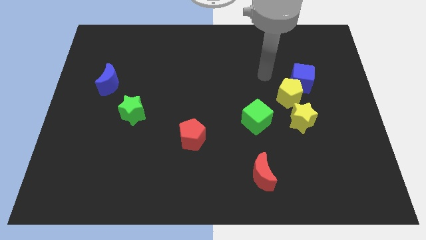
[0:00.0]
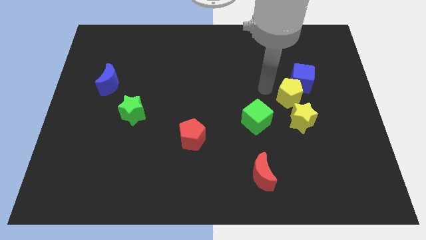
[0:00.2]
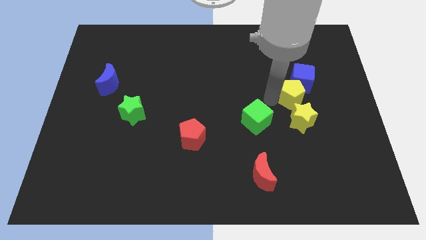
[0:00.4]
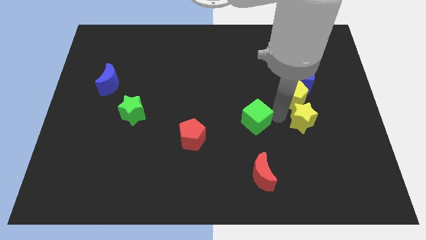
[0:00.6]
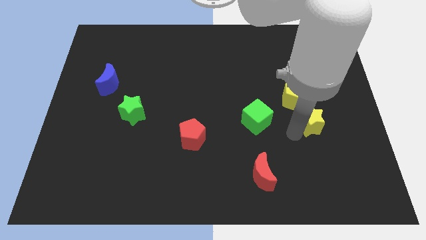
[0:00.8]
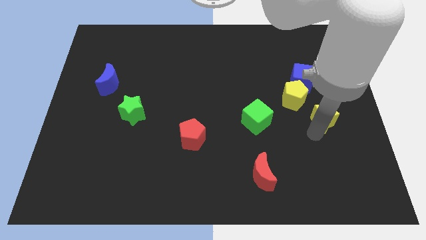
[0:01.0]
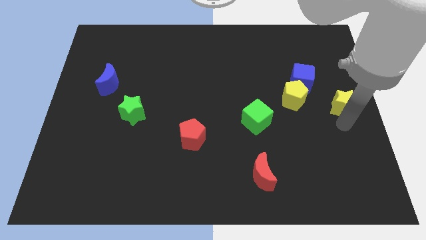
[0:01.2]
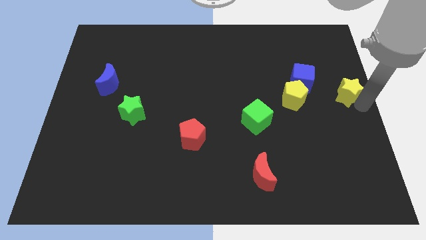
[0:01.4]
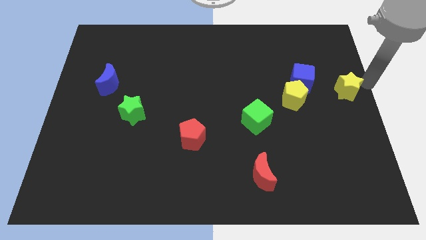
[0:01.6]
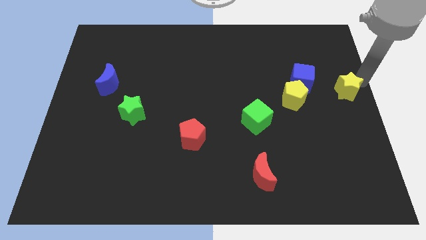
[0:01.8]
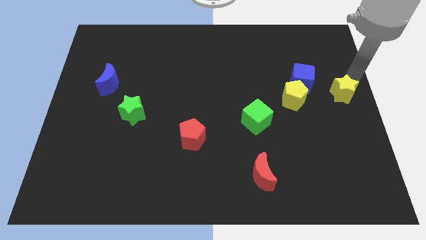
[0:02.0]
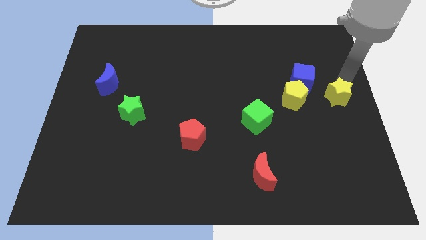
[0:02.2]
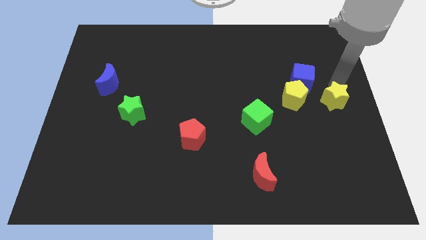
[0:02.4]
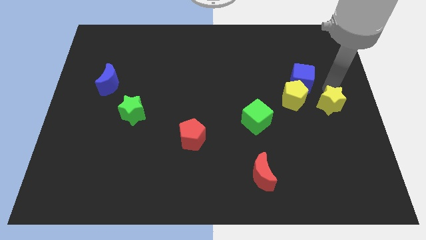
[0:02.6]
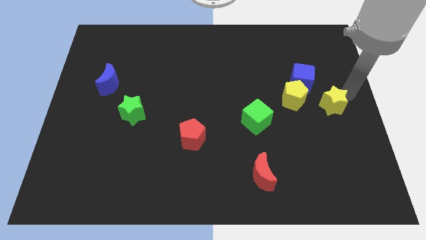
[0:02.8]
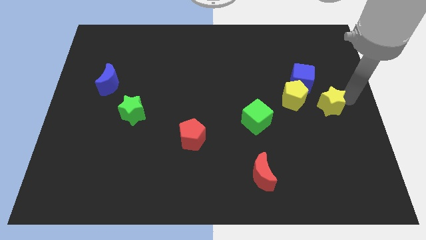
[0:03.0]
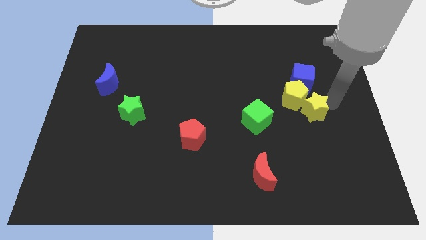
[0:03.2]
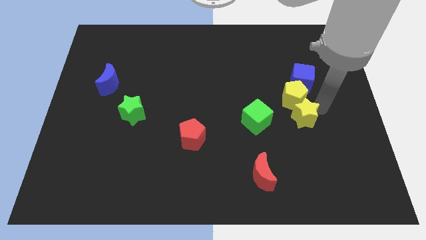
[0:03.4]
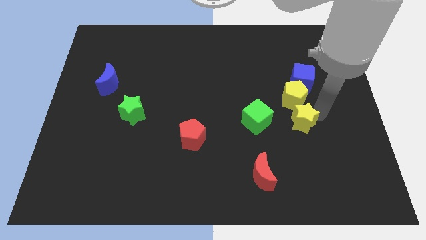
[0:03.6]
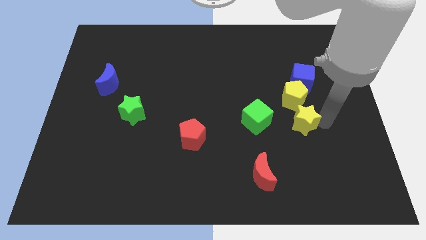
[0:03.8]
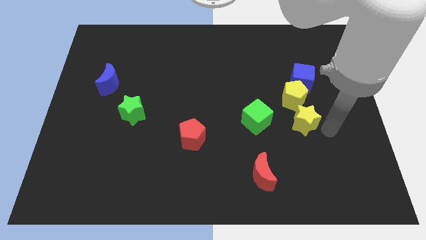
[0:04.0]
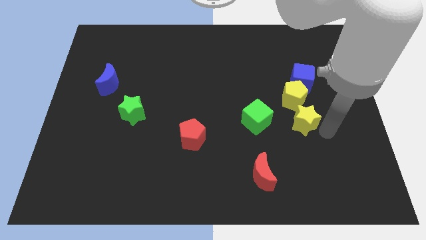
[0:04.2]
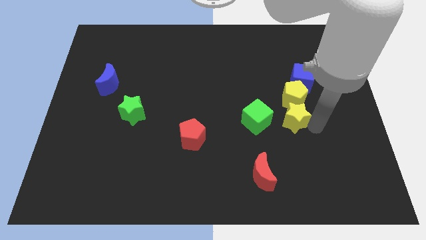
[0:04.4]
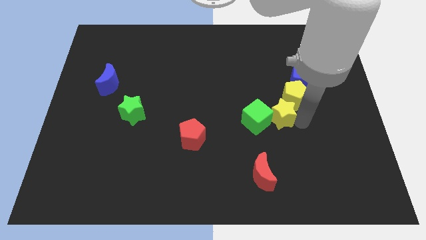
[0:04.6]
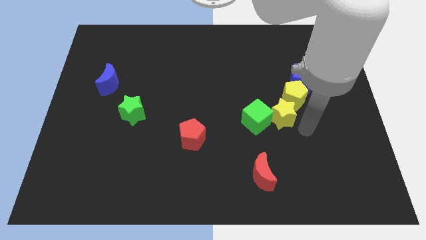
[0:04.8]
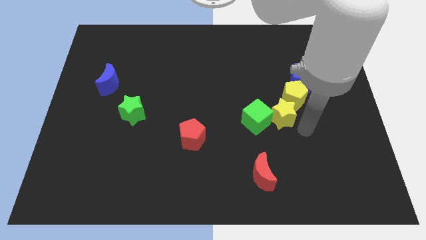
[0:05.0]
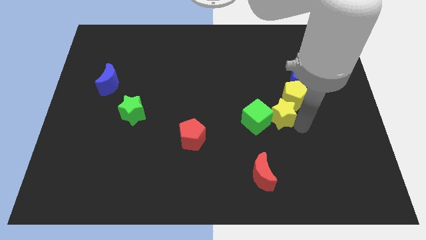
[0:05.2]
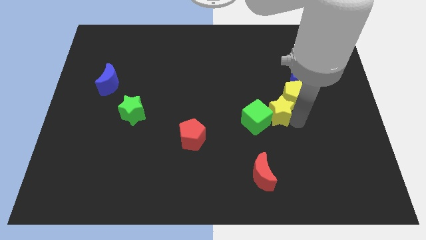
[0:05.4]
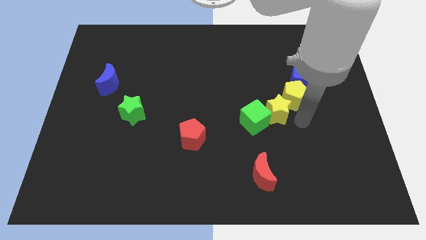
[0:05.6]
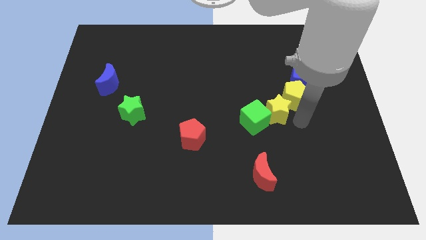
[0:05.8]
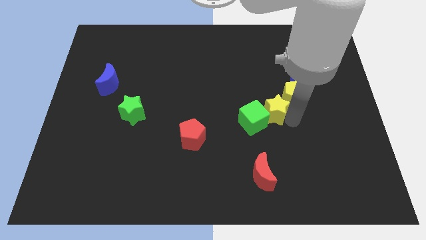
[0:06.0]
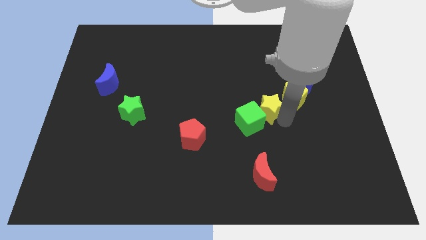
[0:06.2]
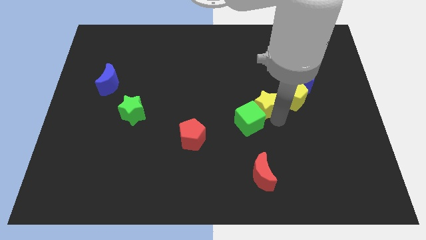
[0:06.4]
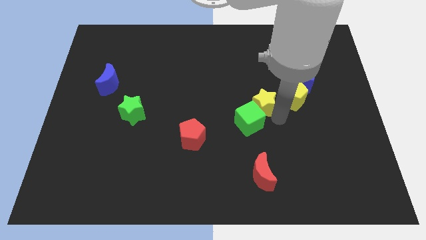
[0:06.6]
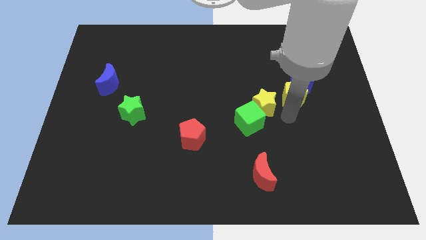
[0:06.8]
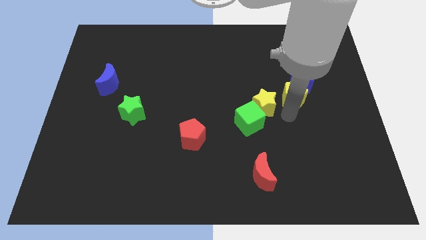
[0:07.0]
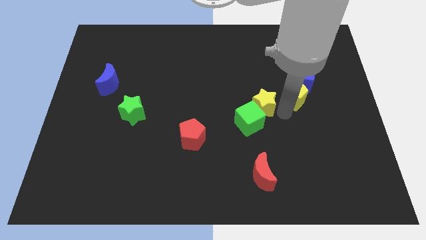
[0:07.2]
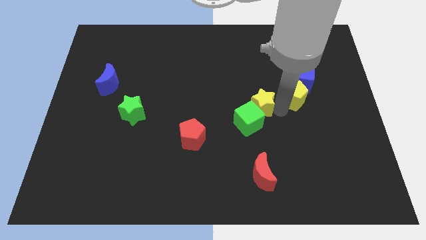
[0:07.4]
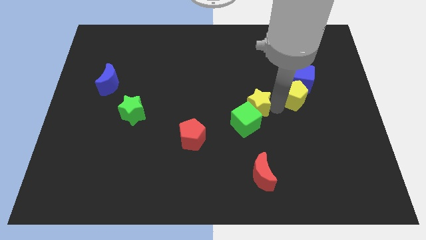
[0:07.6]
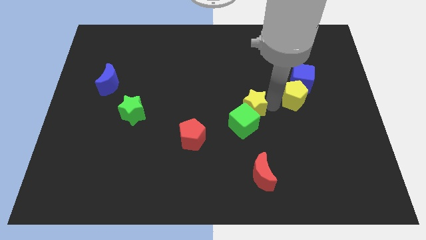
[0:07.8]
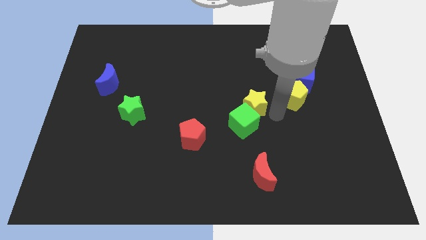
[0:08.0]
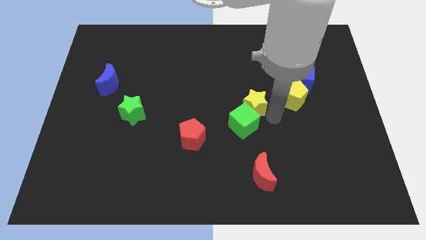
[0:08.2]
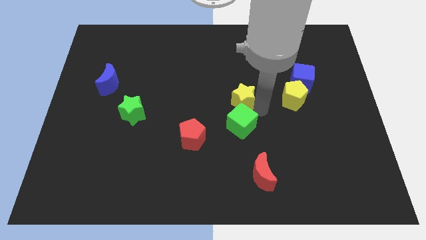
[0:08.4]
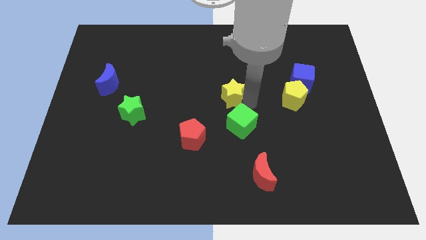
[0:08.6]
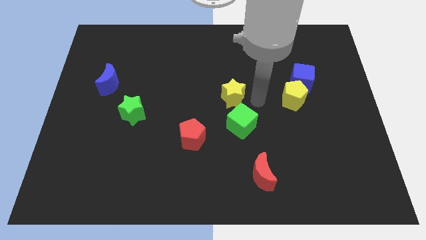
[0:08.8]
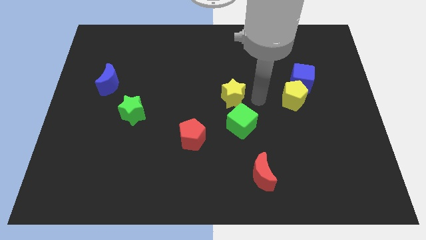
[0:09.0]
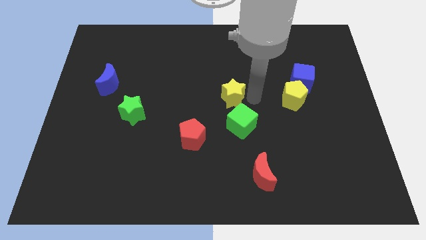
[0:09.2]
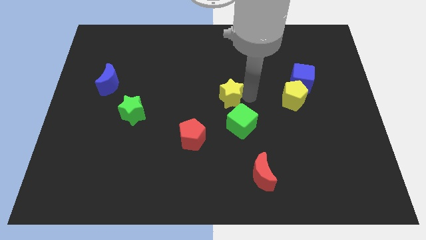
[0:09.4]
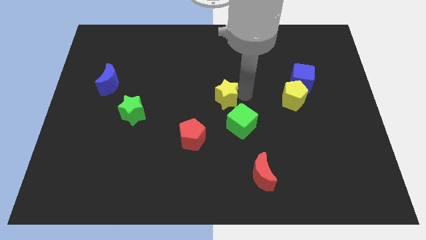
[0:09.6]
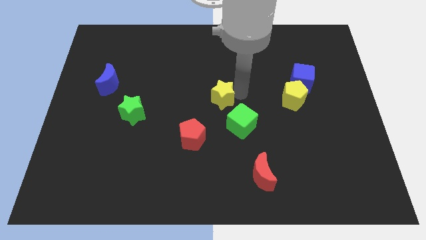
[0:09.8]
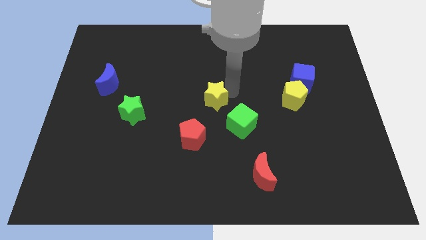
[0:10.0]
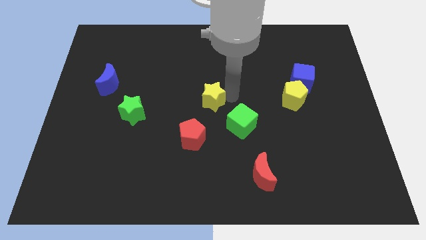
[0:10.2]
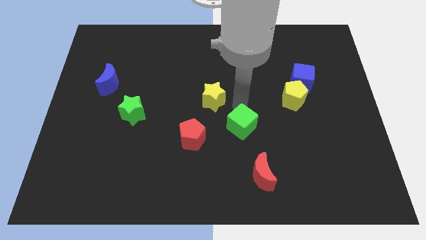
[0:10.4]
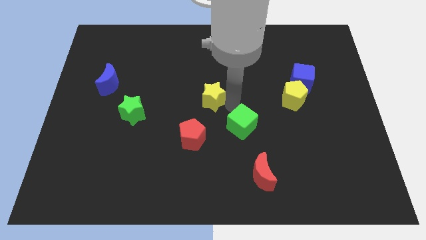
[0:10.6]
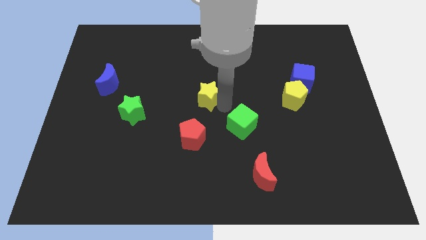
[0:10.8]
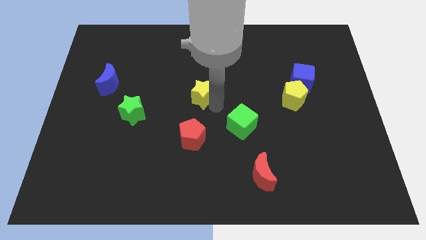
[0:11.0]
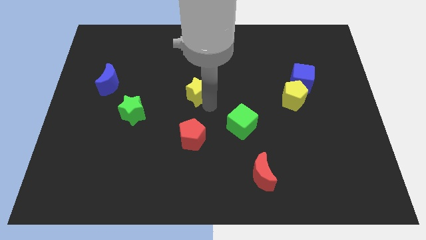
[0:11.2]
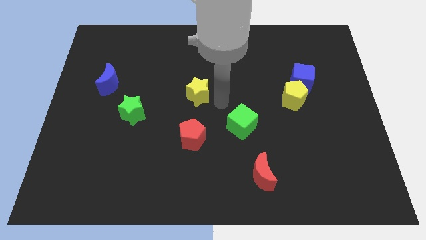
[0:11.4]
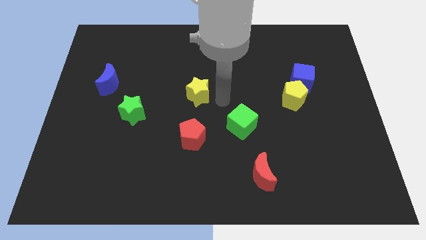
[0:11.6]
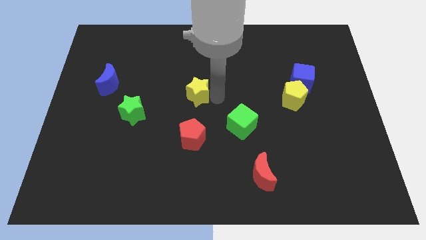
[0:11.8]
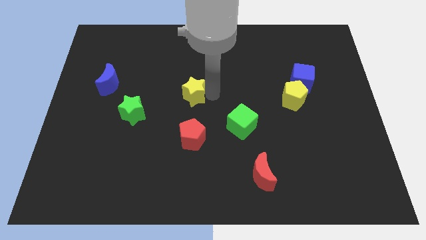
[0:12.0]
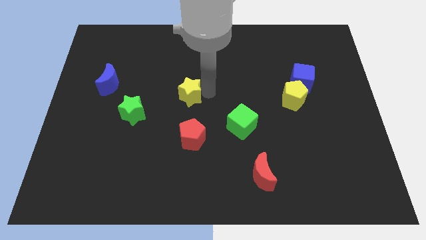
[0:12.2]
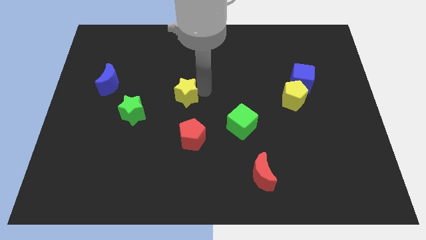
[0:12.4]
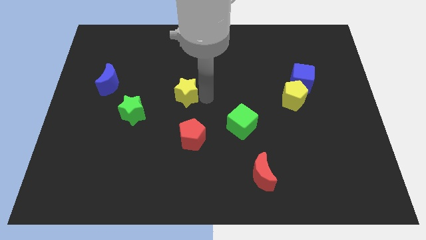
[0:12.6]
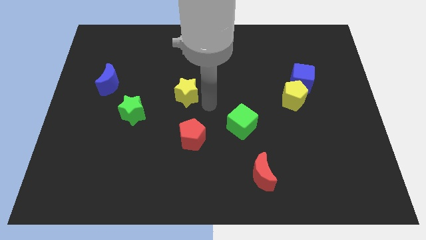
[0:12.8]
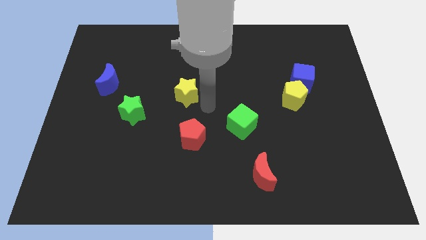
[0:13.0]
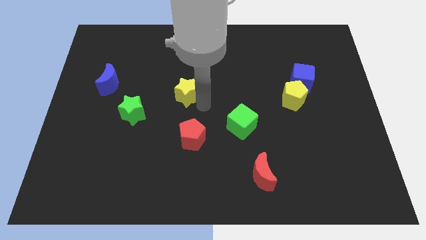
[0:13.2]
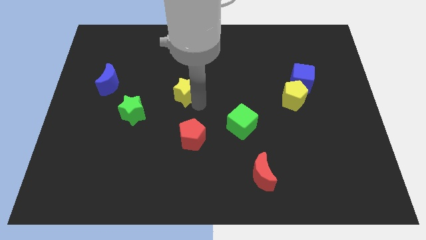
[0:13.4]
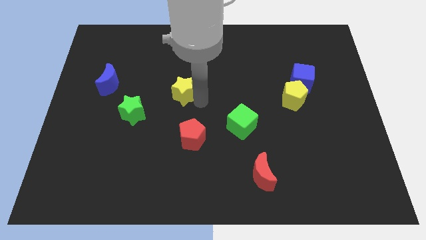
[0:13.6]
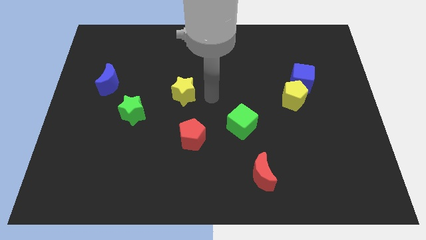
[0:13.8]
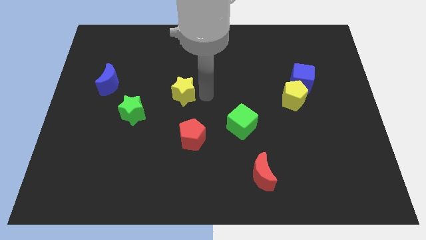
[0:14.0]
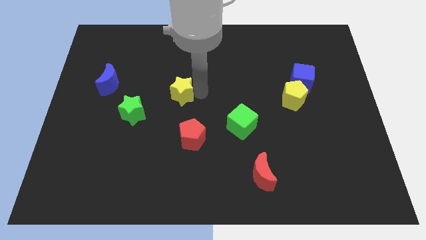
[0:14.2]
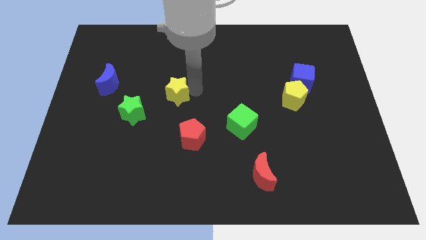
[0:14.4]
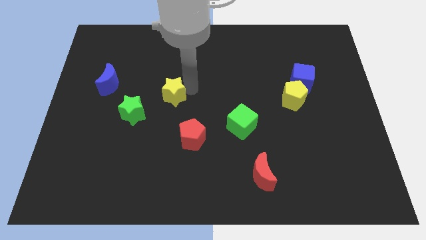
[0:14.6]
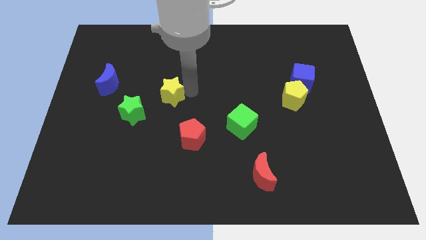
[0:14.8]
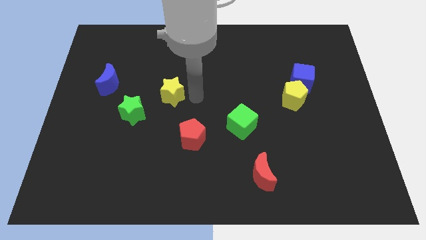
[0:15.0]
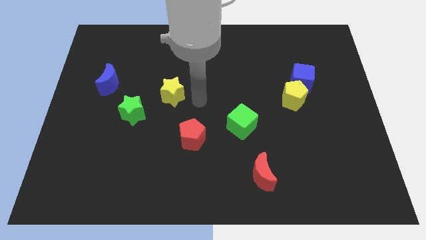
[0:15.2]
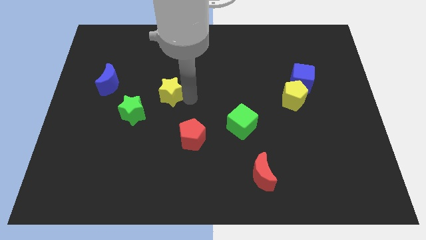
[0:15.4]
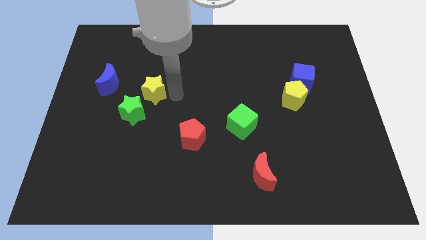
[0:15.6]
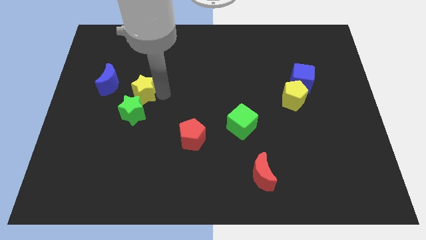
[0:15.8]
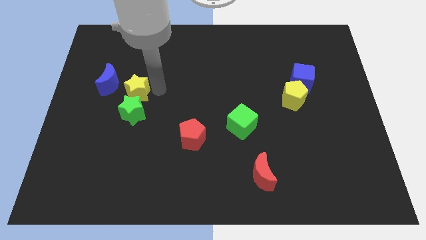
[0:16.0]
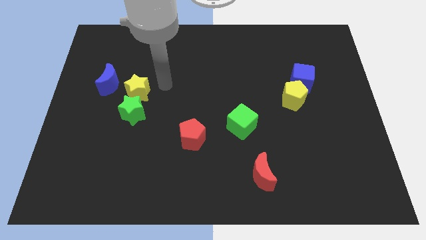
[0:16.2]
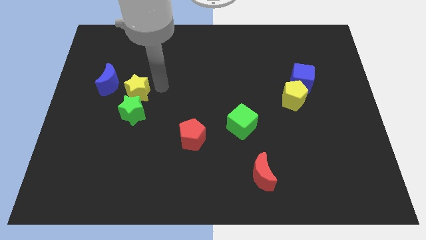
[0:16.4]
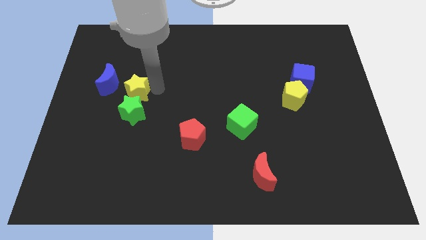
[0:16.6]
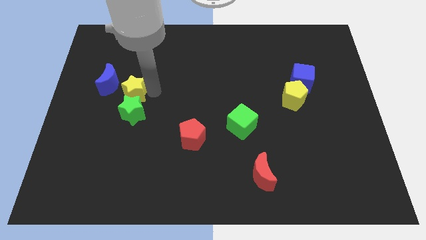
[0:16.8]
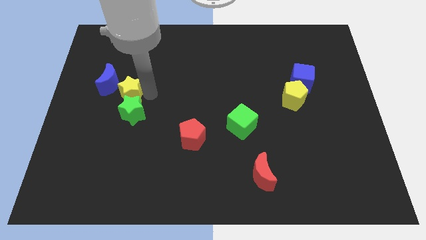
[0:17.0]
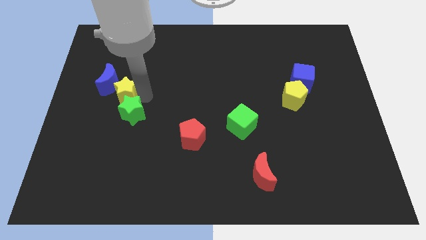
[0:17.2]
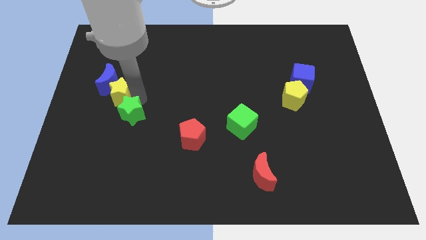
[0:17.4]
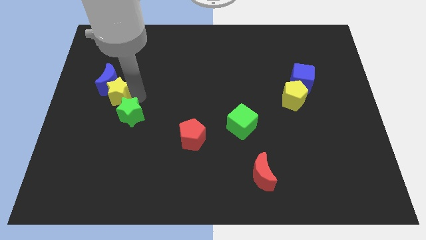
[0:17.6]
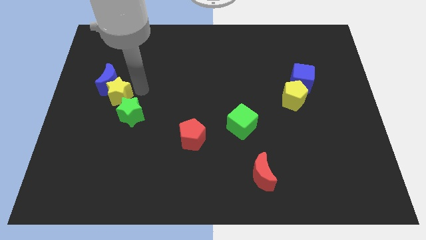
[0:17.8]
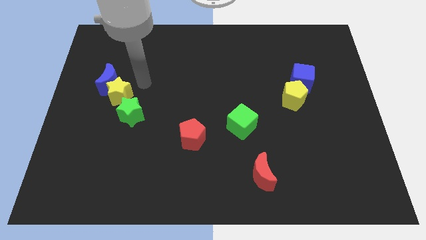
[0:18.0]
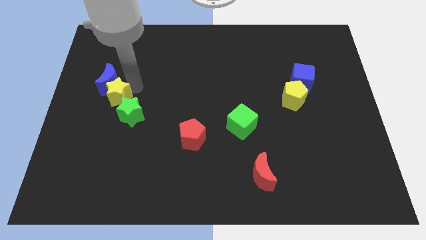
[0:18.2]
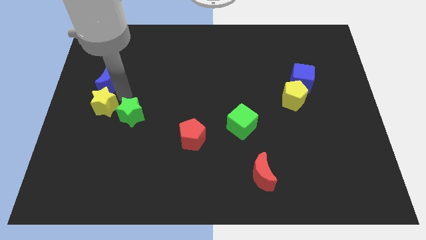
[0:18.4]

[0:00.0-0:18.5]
push the yellow star to the left side
